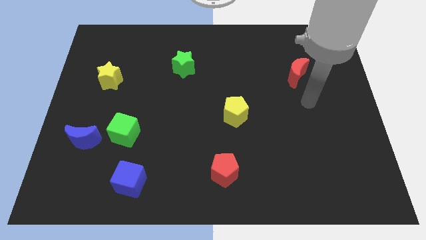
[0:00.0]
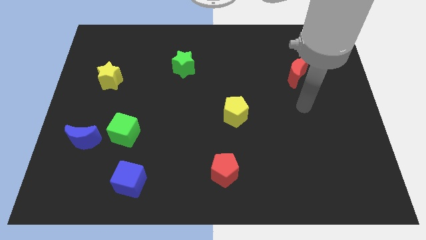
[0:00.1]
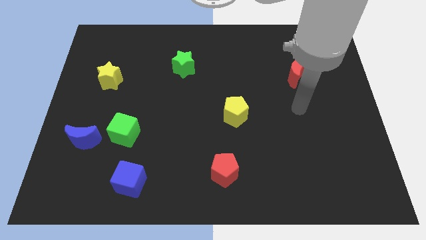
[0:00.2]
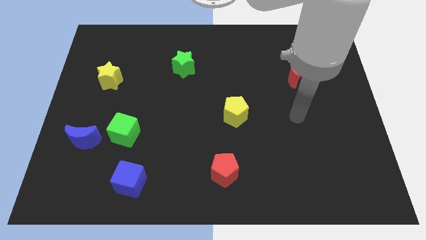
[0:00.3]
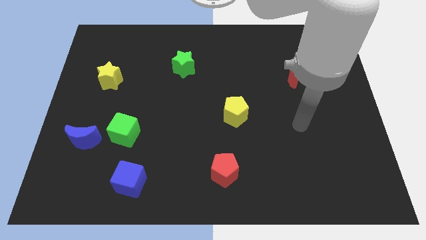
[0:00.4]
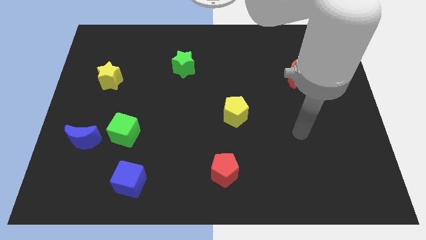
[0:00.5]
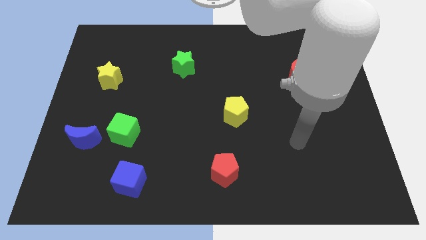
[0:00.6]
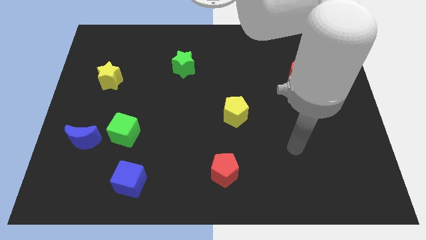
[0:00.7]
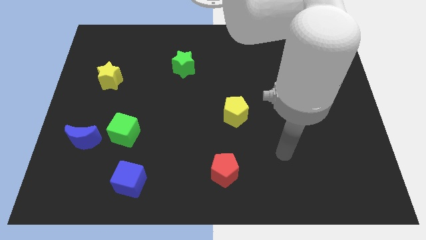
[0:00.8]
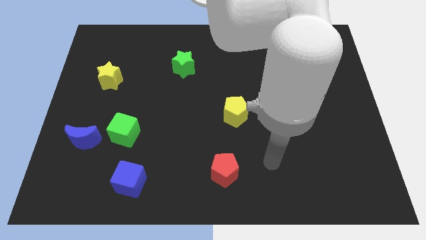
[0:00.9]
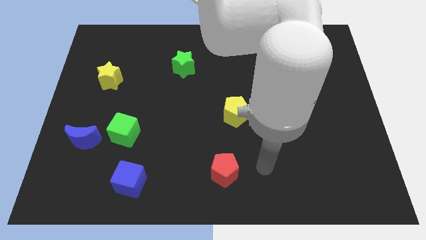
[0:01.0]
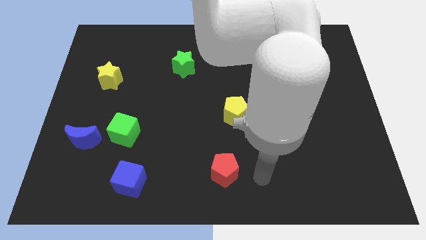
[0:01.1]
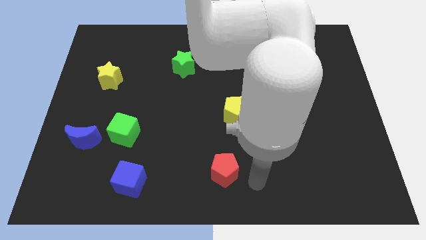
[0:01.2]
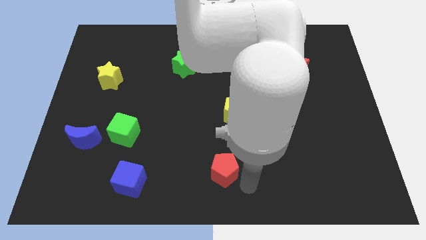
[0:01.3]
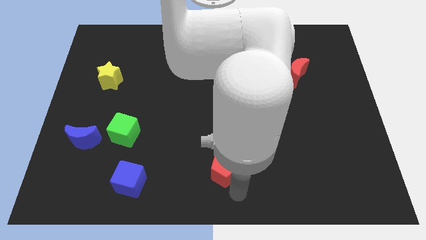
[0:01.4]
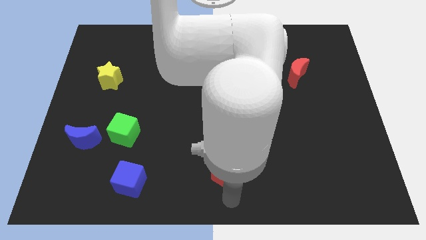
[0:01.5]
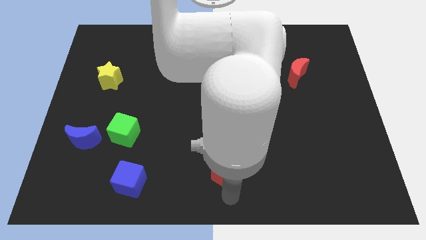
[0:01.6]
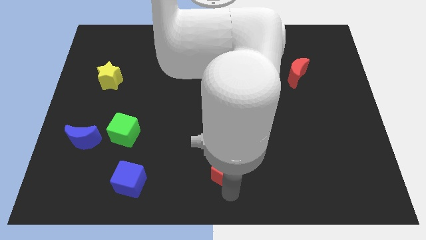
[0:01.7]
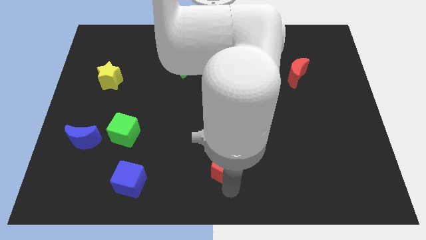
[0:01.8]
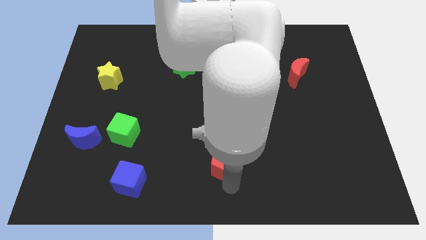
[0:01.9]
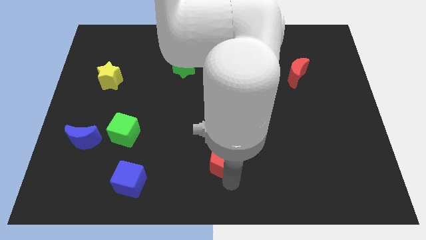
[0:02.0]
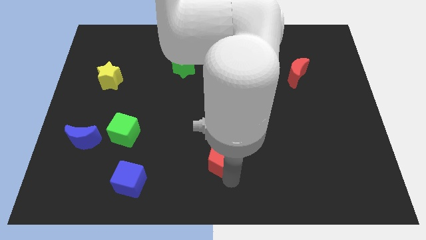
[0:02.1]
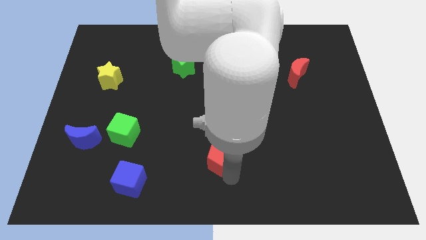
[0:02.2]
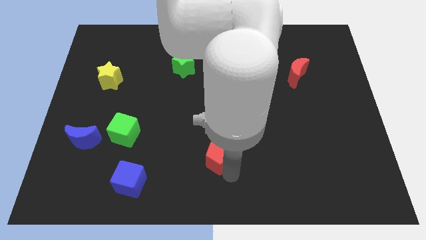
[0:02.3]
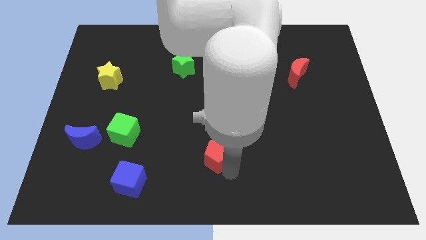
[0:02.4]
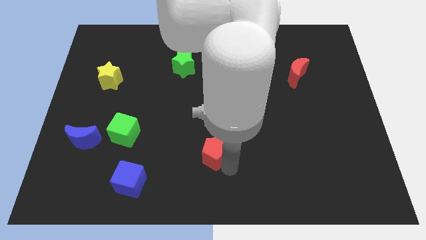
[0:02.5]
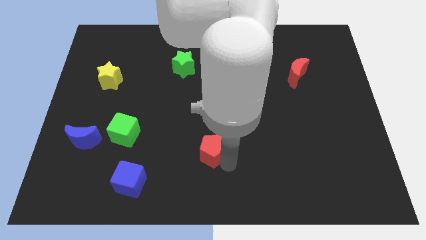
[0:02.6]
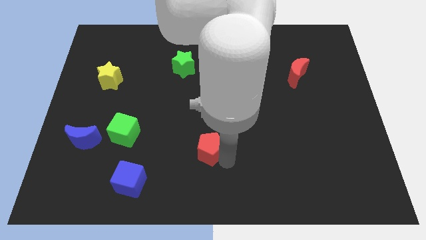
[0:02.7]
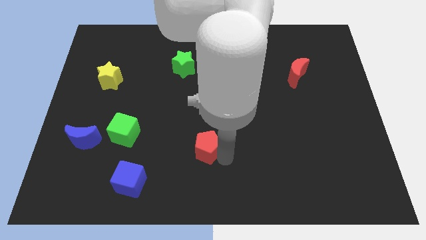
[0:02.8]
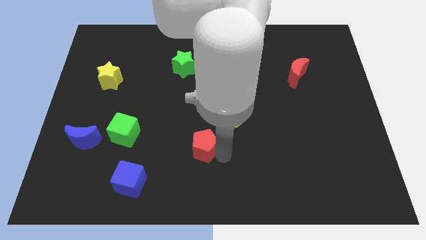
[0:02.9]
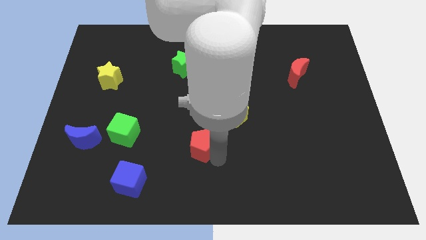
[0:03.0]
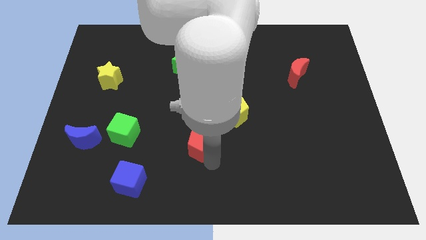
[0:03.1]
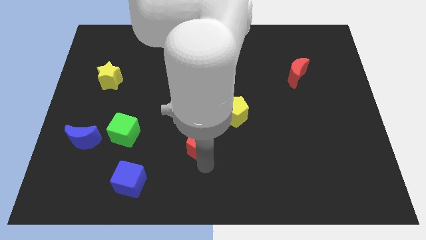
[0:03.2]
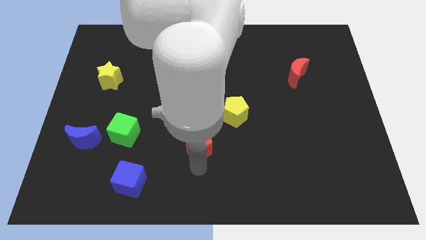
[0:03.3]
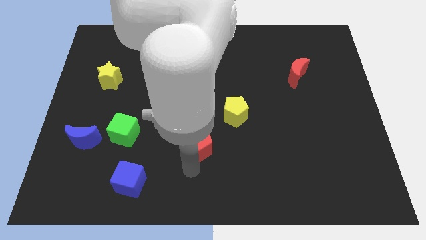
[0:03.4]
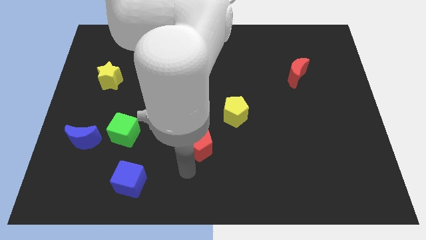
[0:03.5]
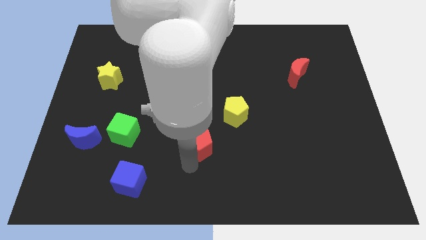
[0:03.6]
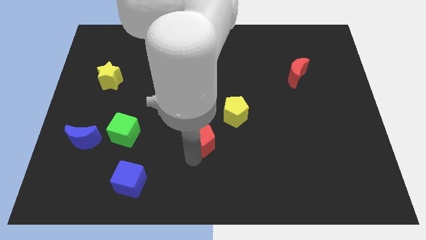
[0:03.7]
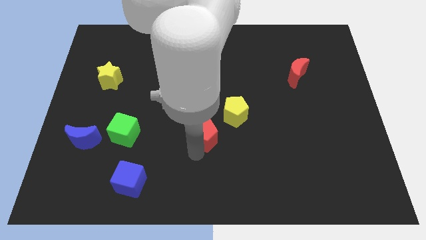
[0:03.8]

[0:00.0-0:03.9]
slightly push the red pentagon up

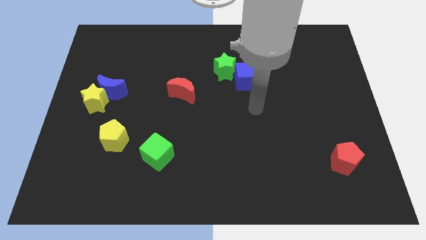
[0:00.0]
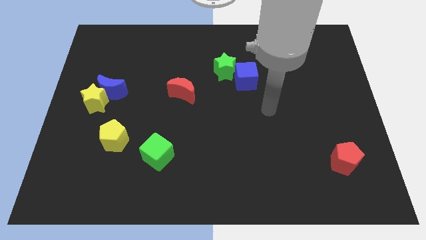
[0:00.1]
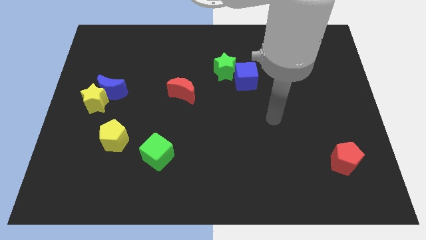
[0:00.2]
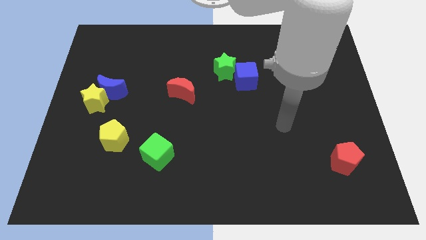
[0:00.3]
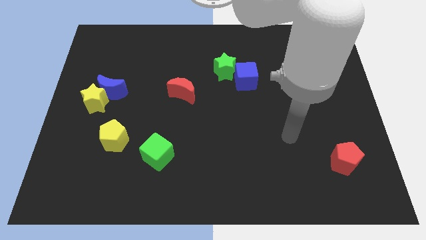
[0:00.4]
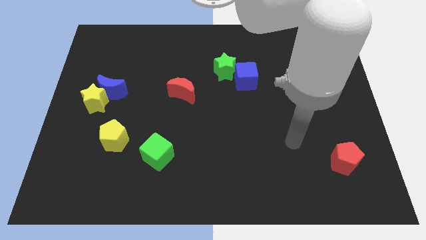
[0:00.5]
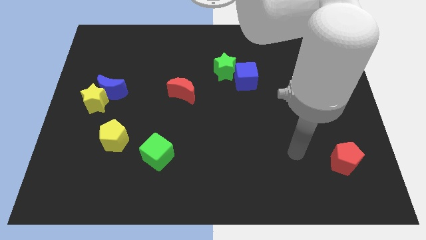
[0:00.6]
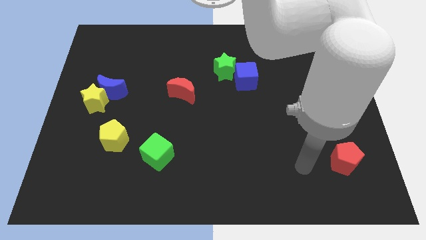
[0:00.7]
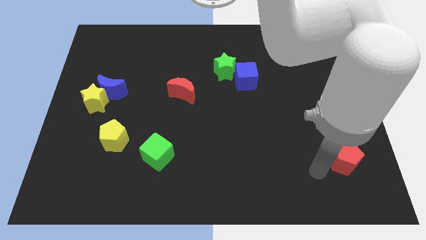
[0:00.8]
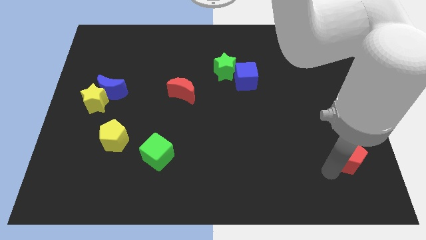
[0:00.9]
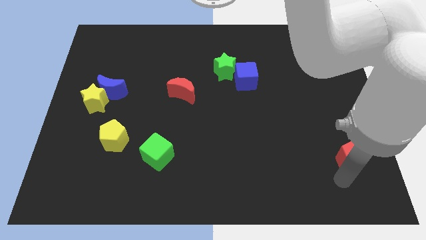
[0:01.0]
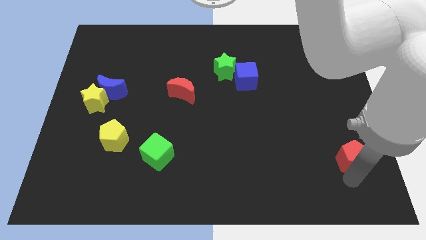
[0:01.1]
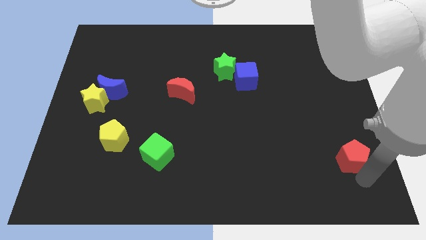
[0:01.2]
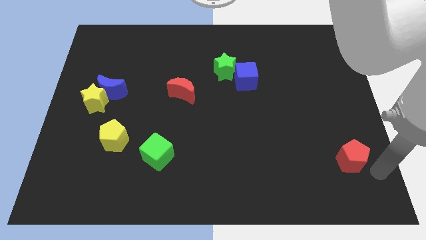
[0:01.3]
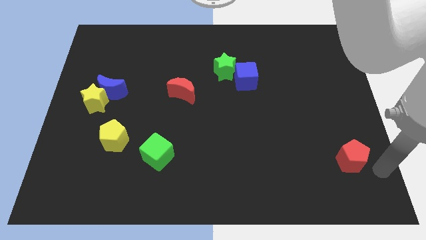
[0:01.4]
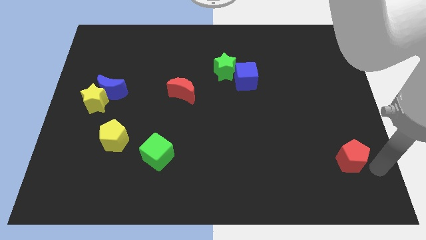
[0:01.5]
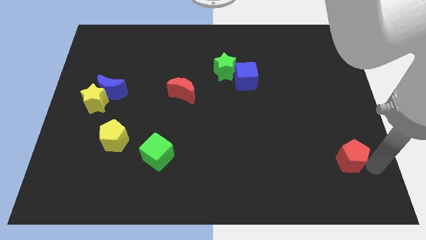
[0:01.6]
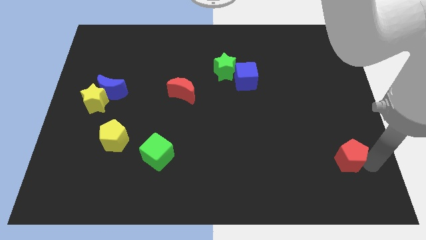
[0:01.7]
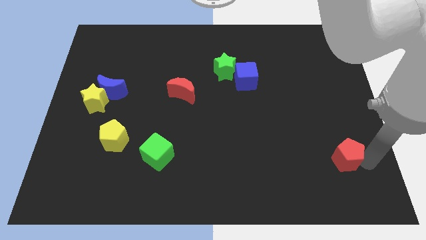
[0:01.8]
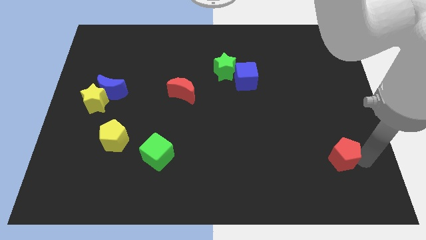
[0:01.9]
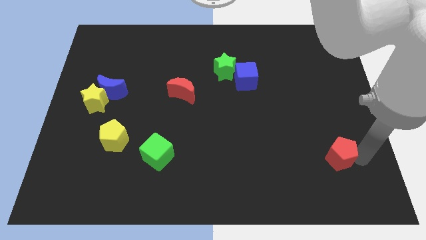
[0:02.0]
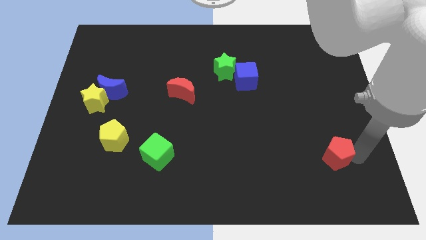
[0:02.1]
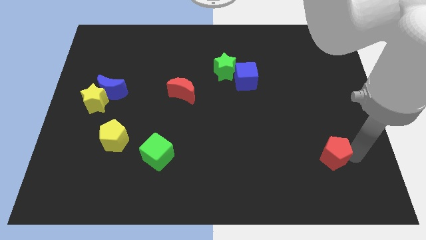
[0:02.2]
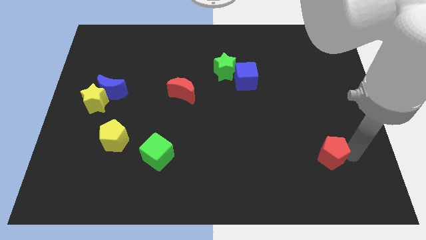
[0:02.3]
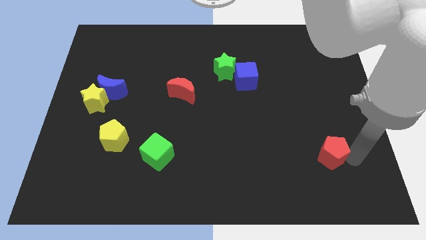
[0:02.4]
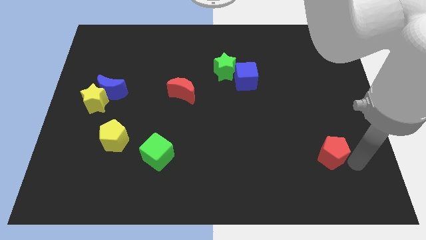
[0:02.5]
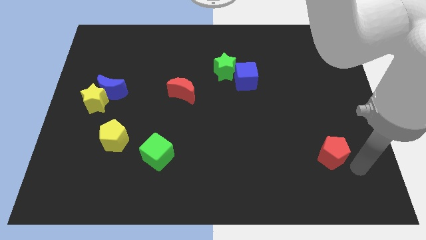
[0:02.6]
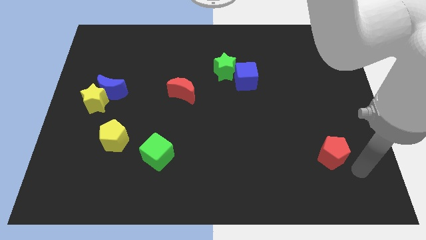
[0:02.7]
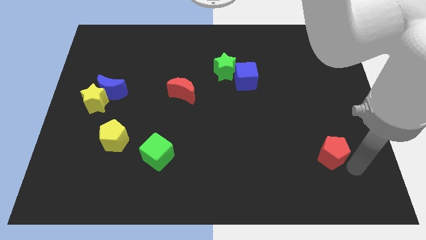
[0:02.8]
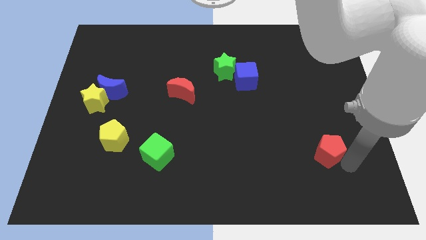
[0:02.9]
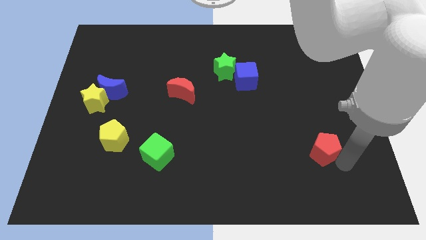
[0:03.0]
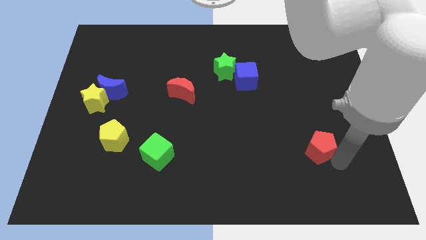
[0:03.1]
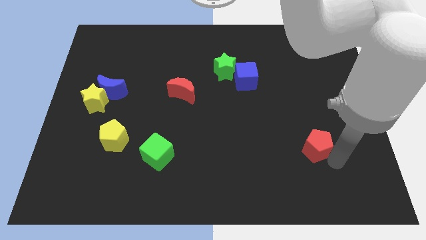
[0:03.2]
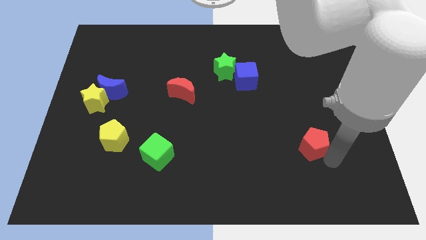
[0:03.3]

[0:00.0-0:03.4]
slightly slide the red pentagon diagonally upwards and left

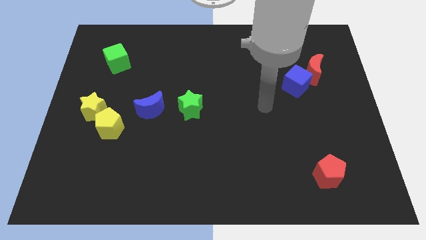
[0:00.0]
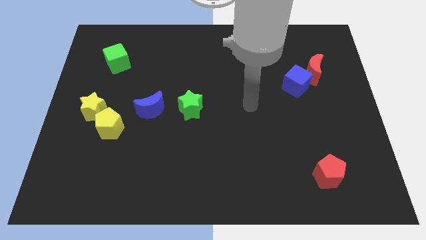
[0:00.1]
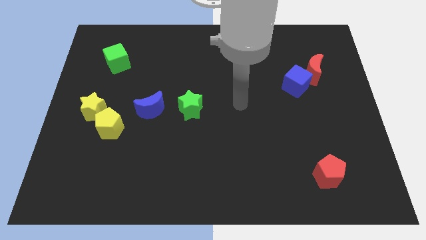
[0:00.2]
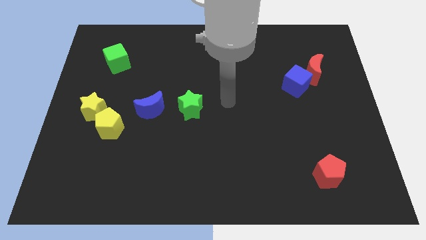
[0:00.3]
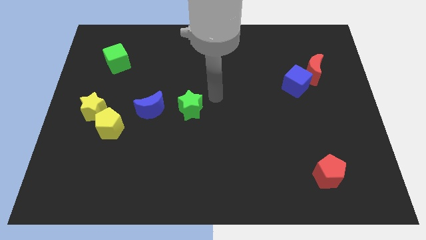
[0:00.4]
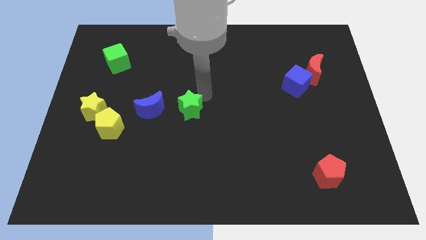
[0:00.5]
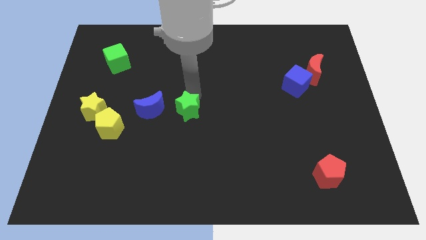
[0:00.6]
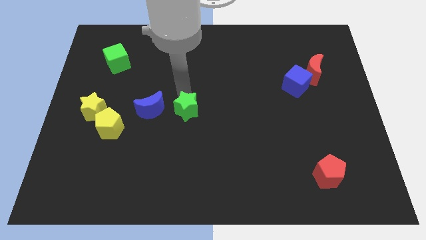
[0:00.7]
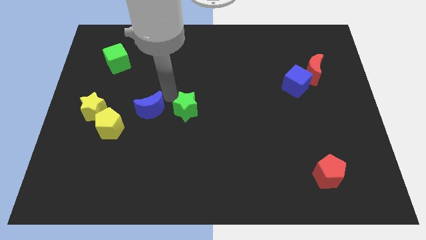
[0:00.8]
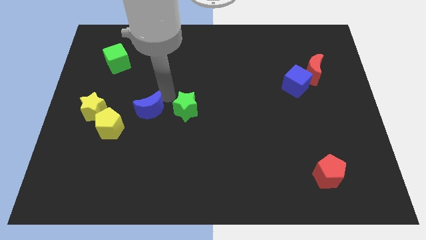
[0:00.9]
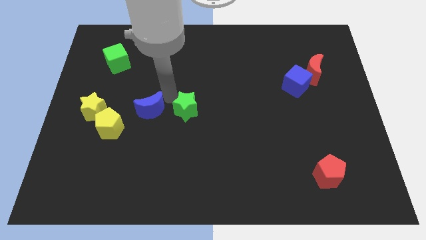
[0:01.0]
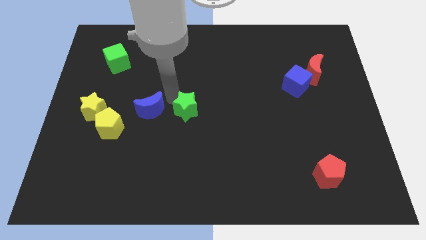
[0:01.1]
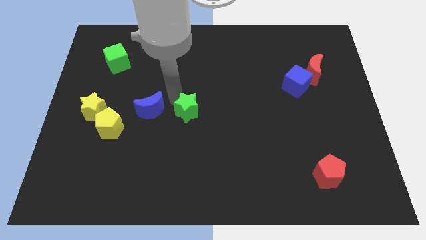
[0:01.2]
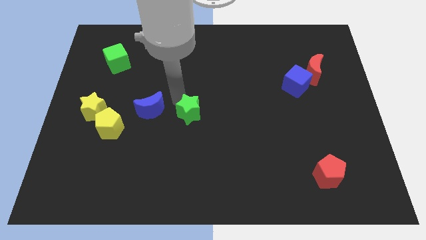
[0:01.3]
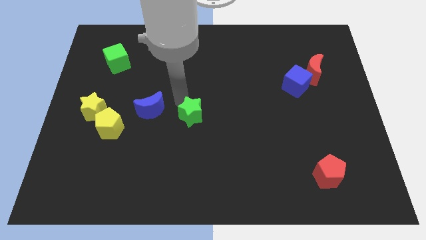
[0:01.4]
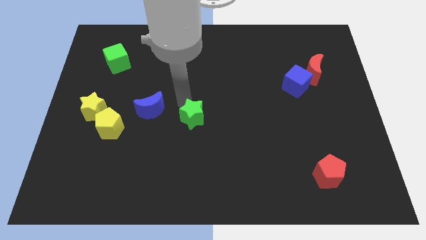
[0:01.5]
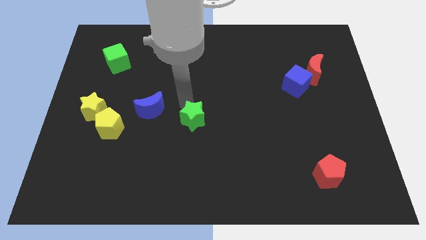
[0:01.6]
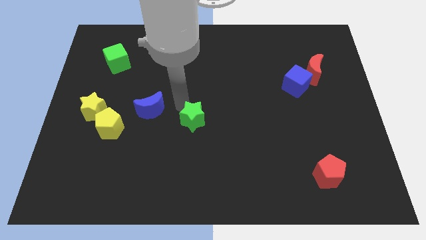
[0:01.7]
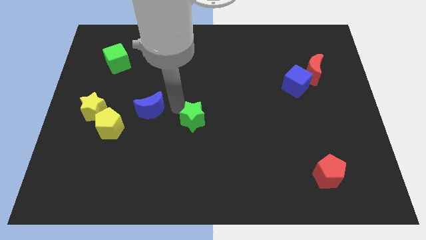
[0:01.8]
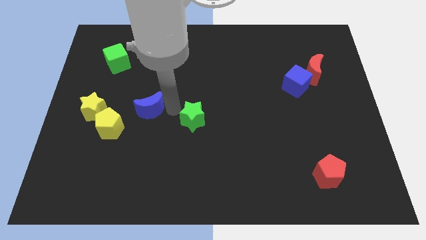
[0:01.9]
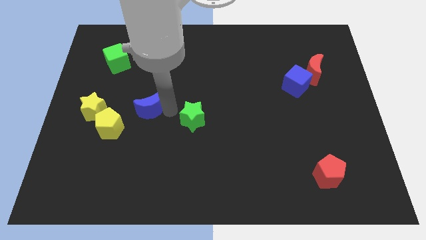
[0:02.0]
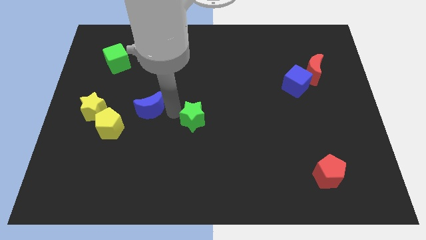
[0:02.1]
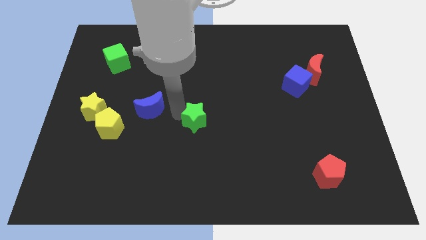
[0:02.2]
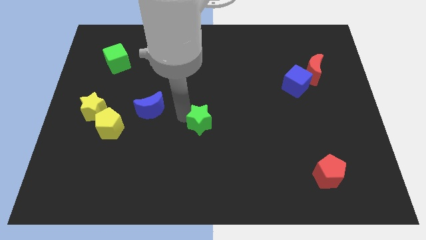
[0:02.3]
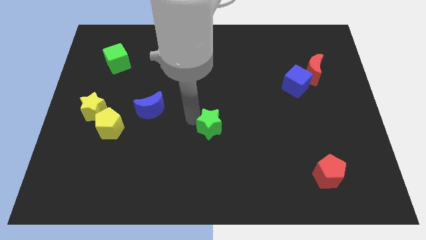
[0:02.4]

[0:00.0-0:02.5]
slide the green star a bit downwards and right diagonally
